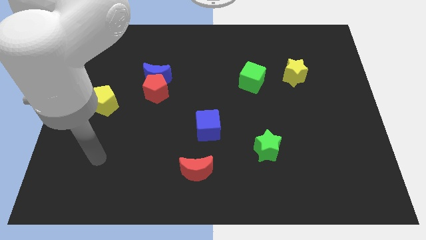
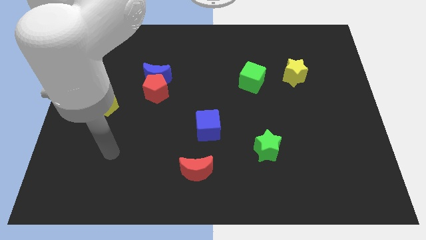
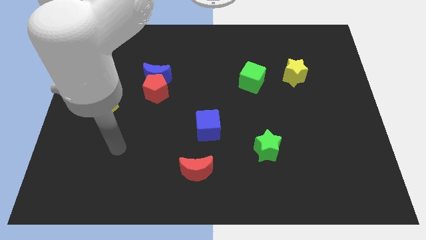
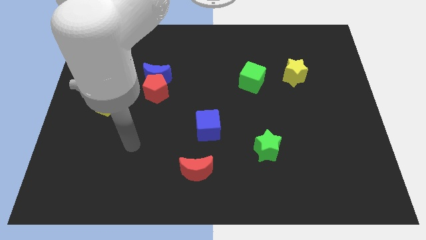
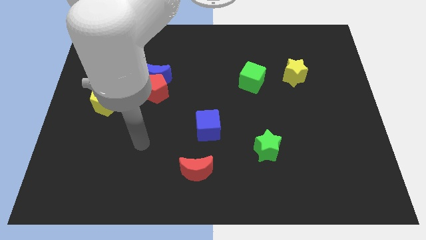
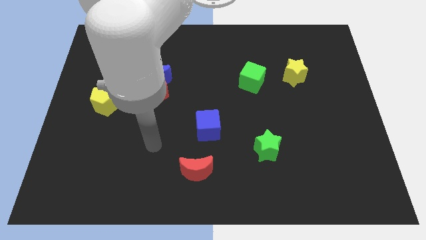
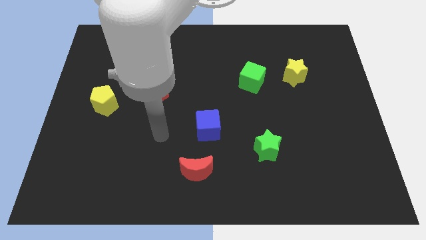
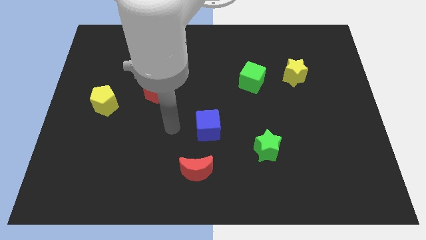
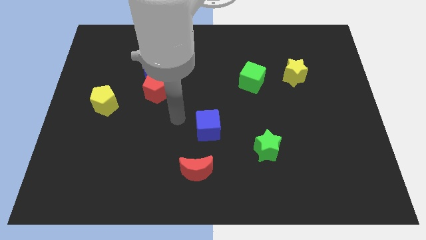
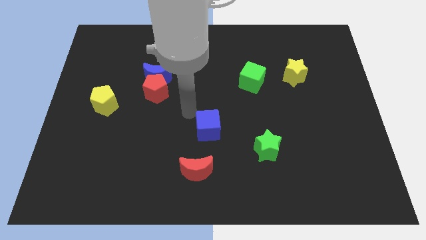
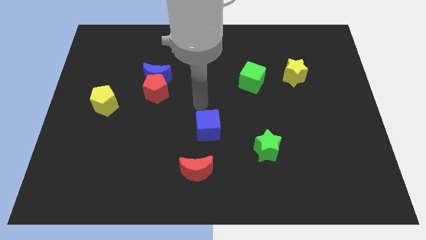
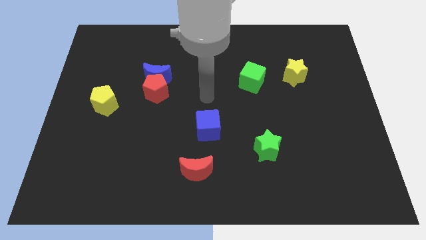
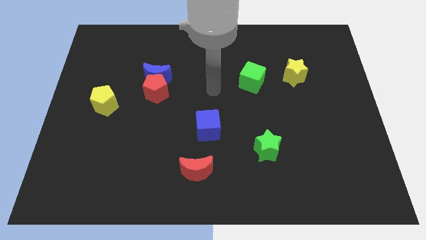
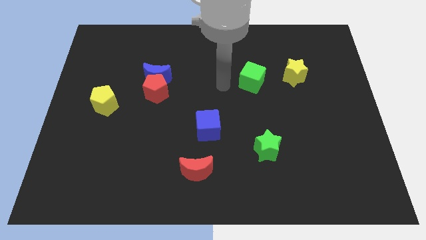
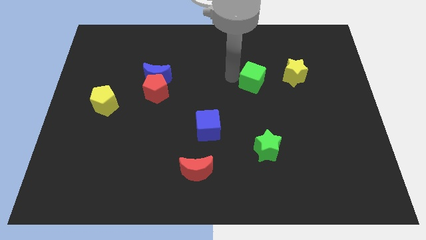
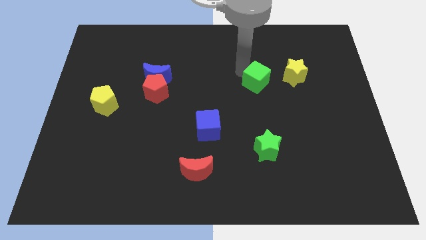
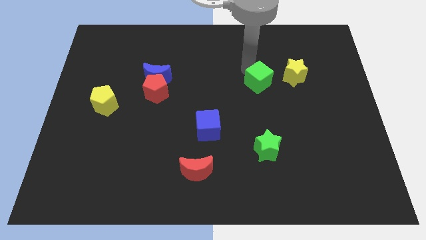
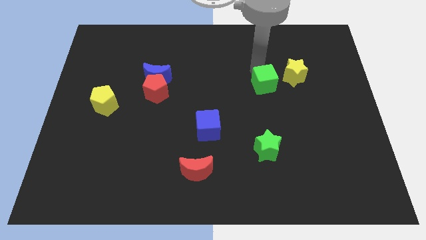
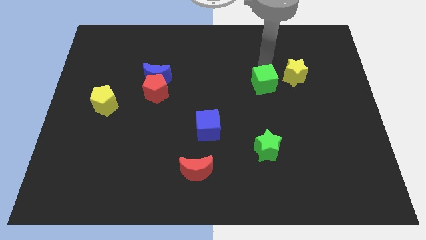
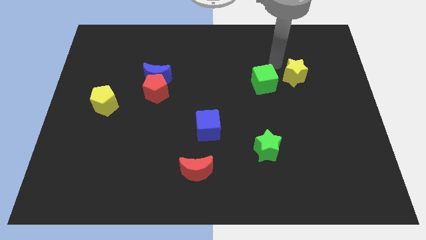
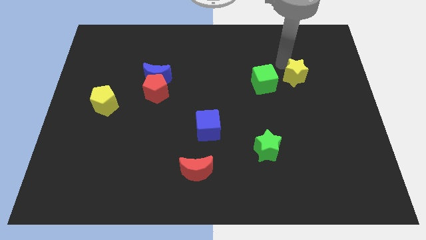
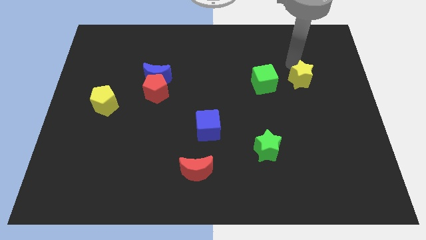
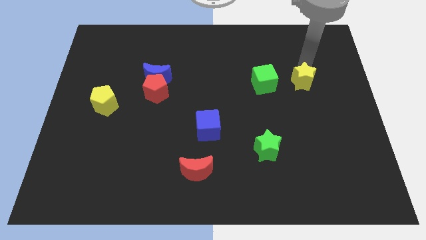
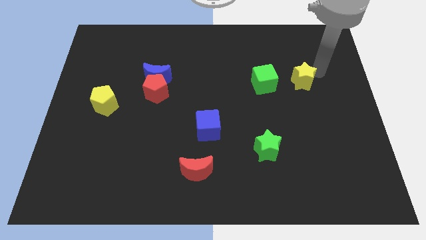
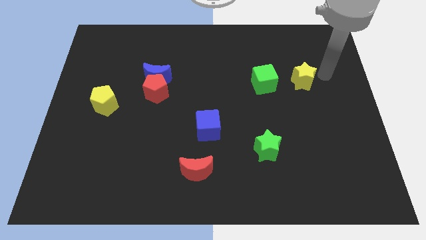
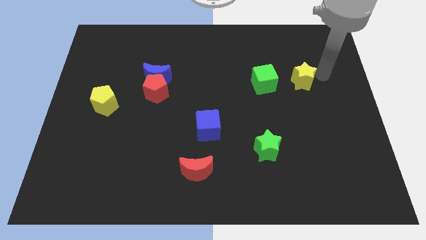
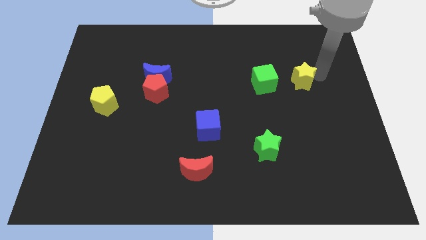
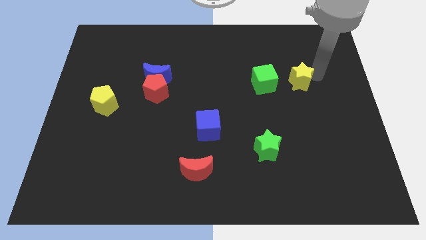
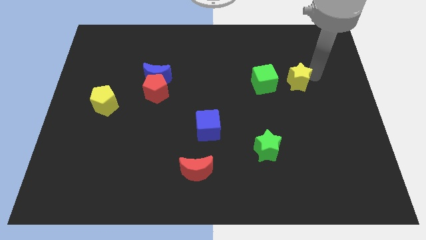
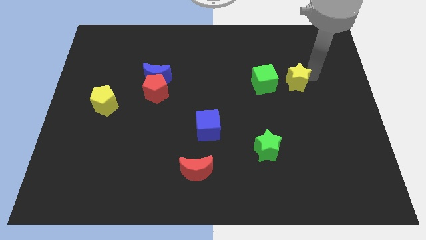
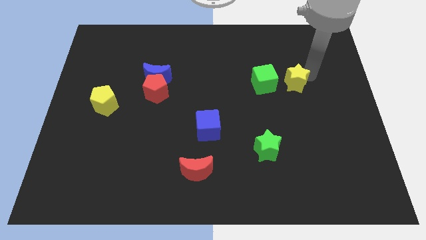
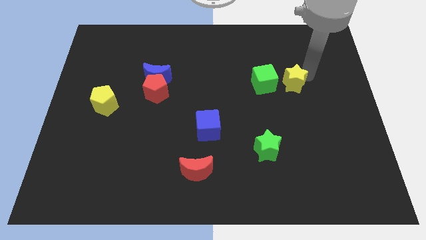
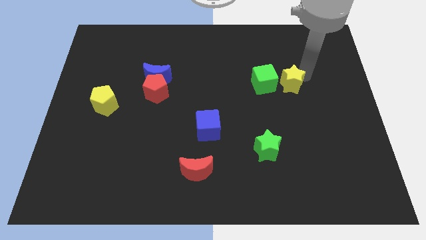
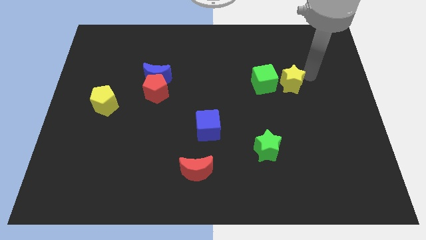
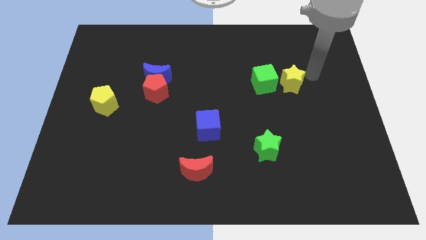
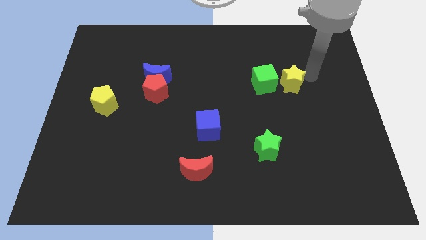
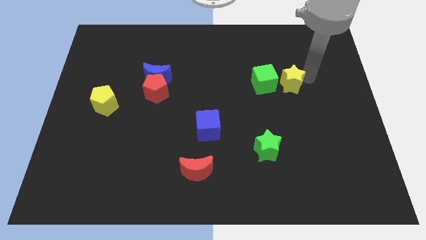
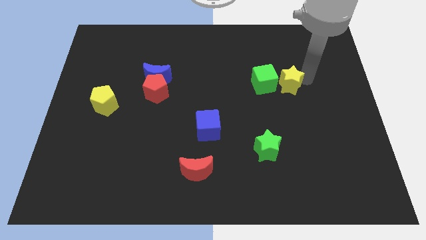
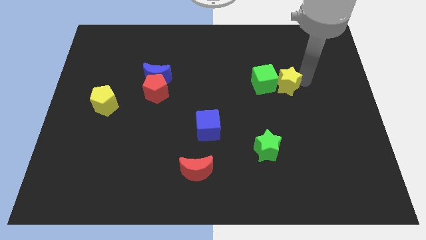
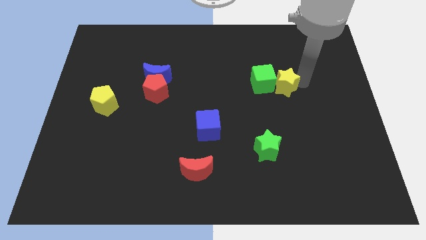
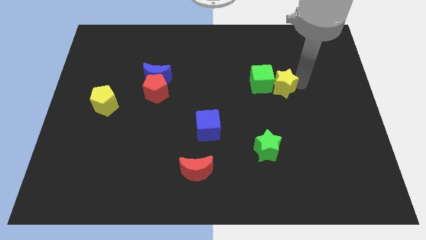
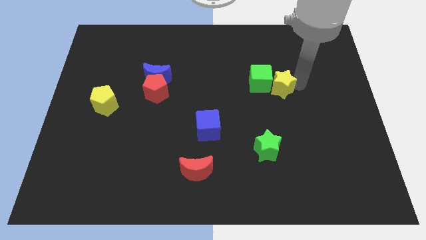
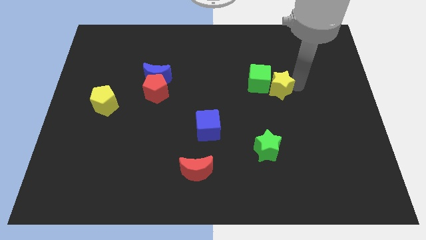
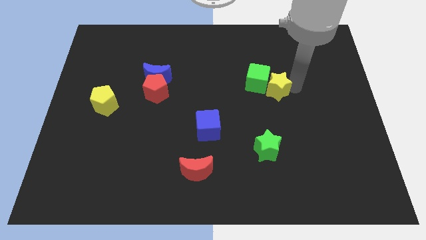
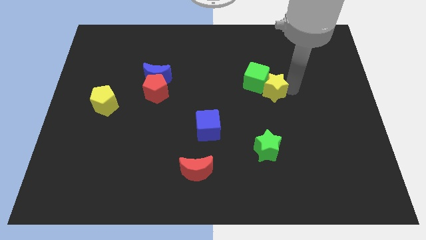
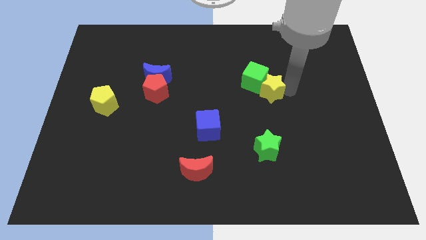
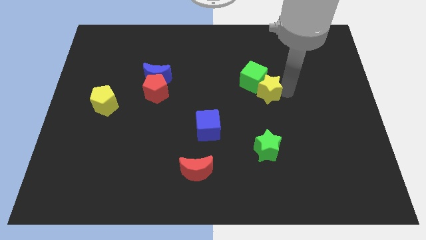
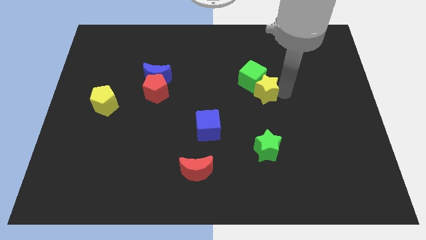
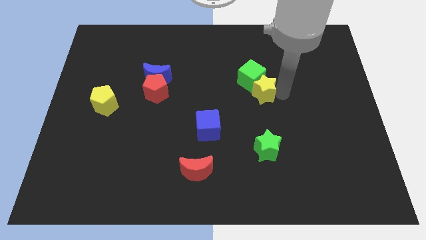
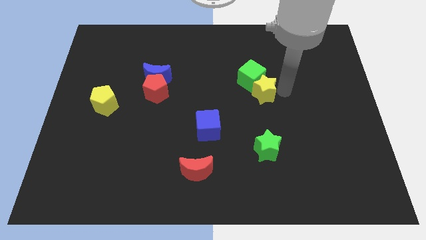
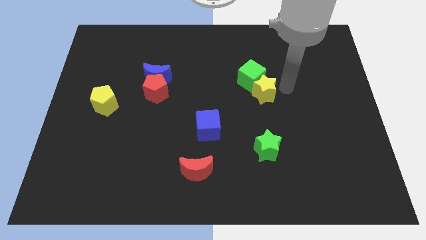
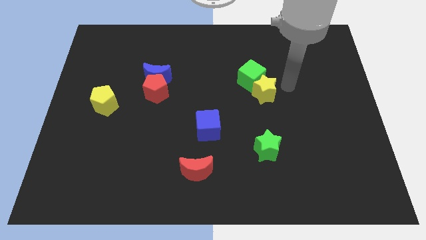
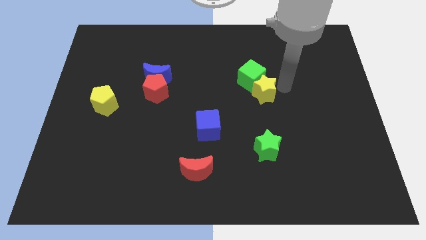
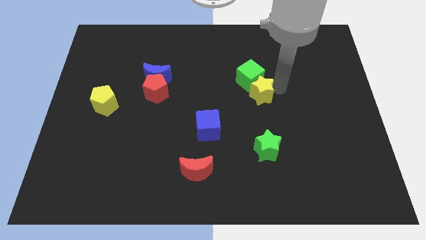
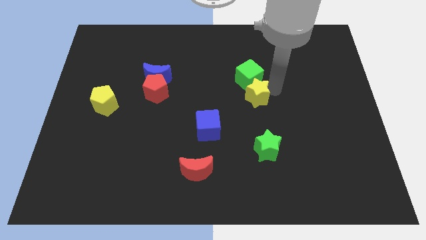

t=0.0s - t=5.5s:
push the yellow star to the bottom left side of the green cube

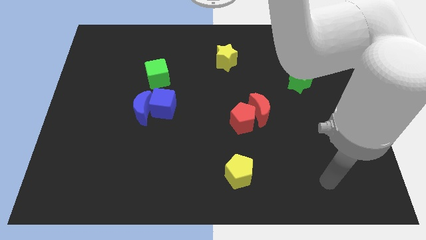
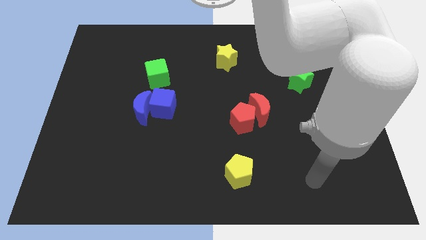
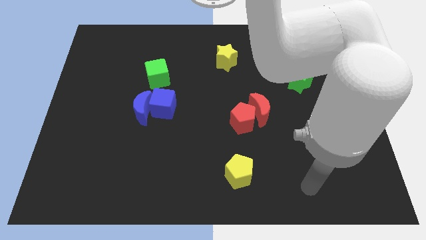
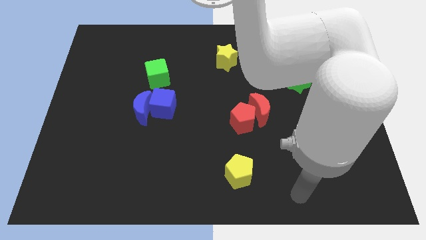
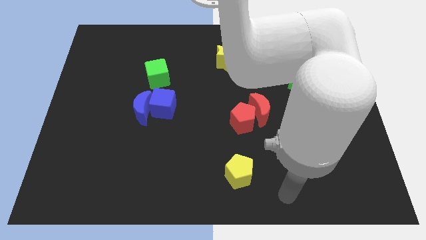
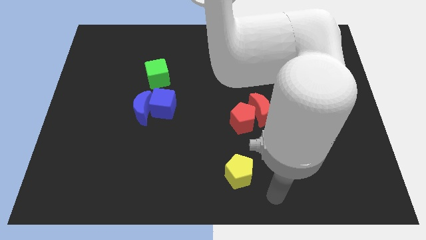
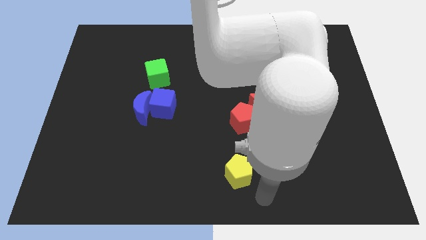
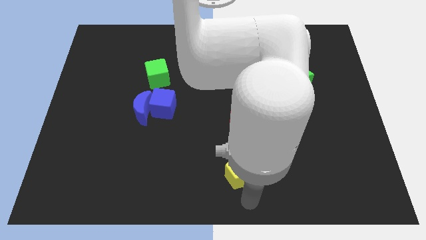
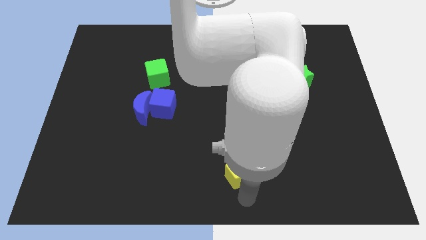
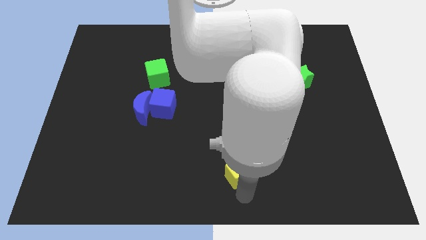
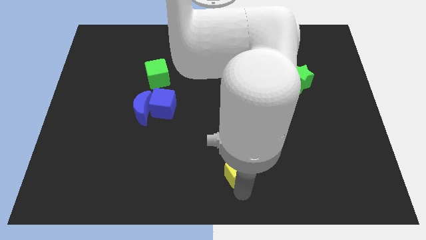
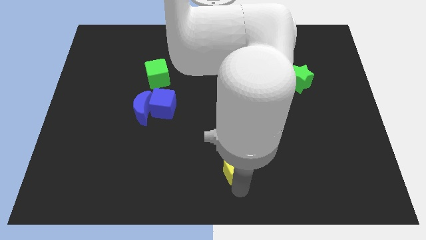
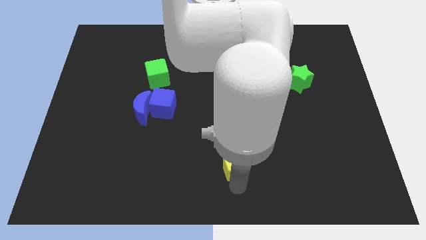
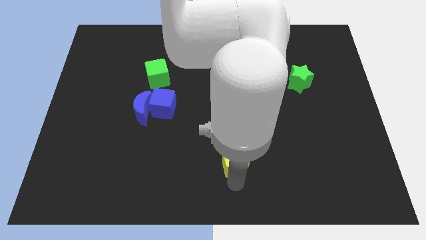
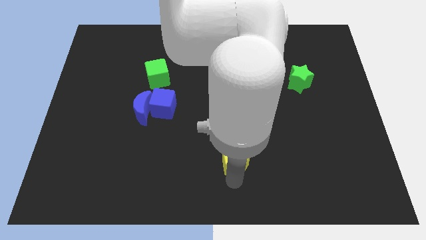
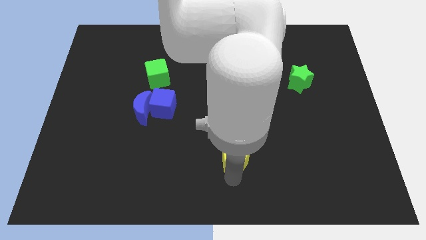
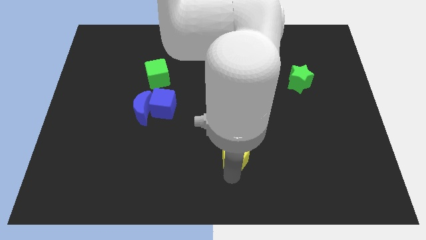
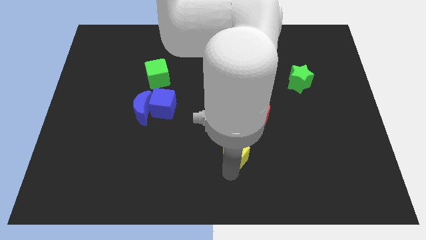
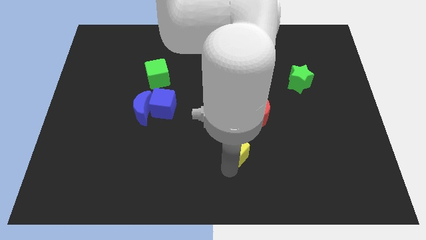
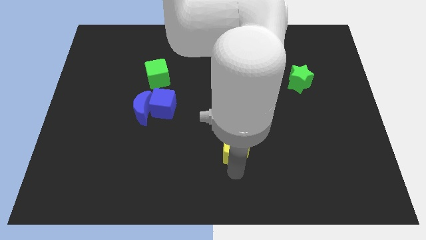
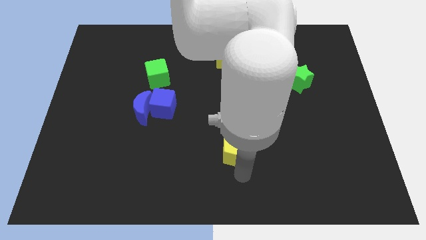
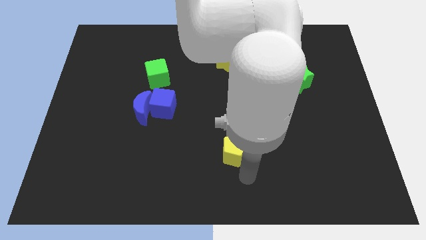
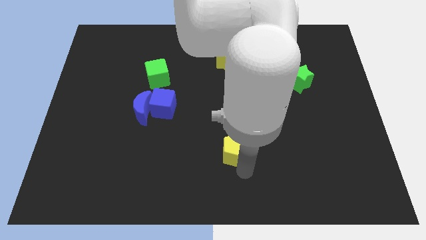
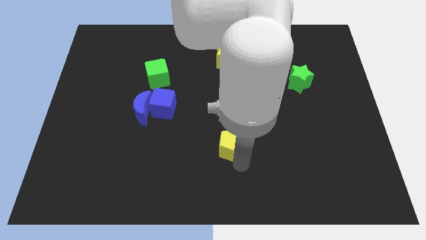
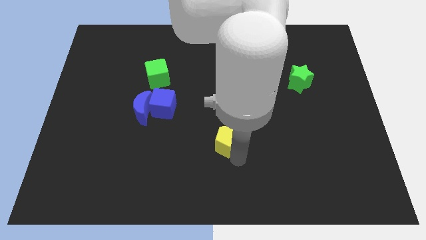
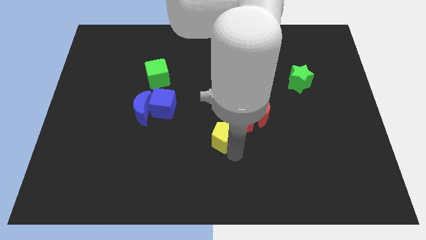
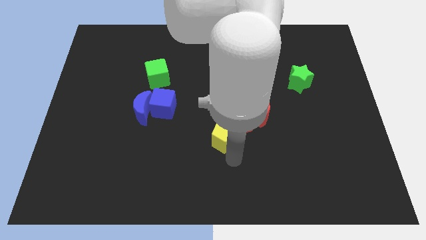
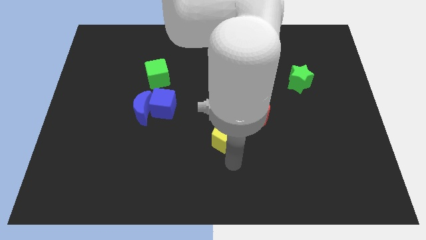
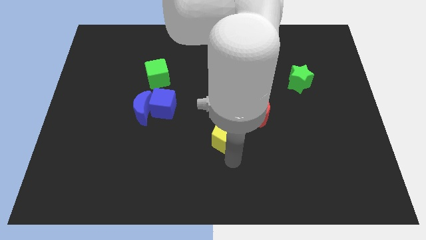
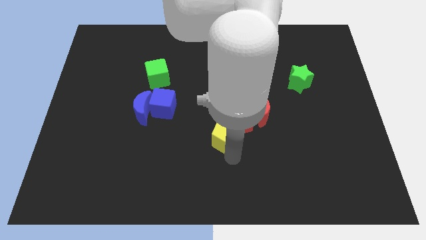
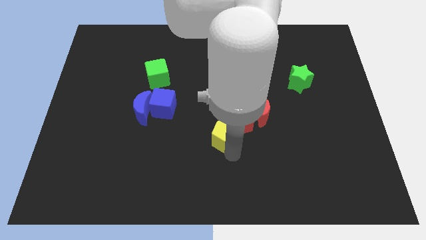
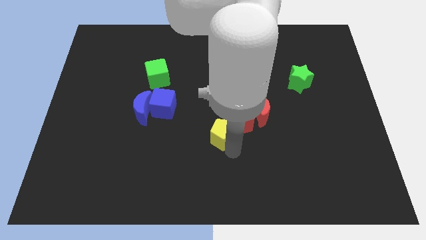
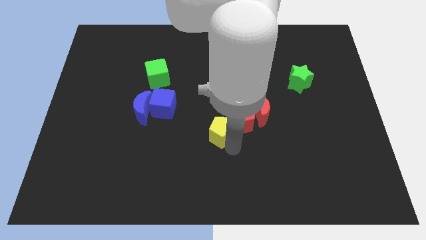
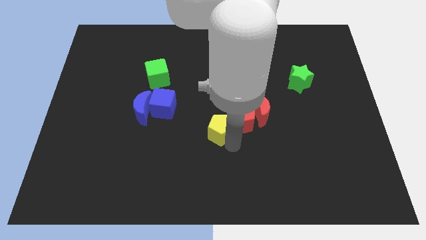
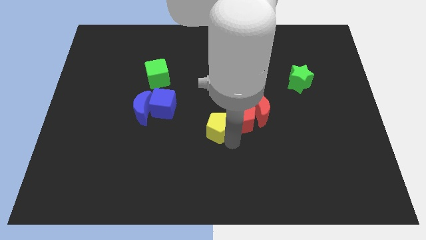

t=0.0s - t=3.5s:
slide the yellow pentagon to the left side of the red moon
